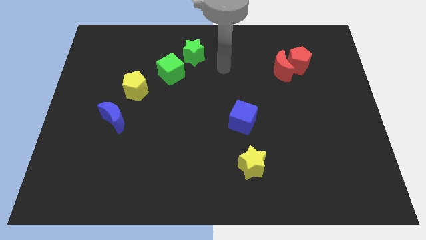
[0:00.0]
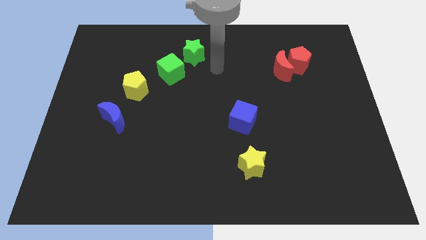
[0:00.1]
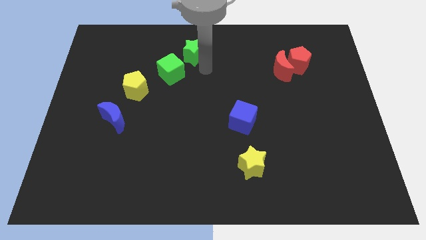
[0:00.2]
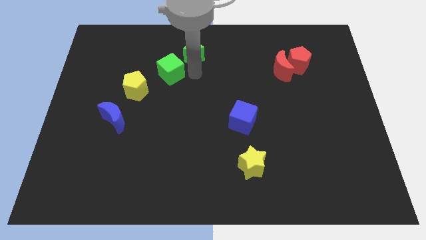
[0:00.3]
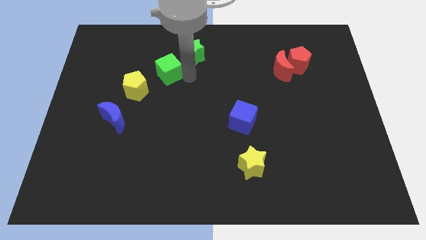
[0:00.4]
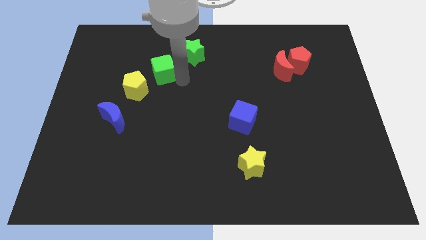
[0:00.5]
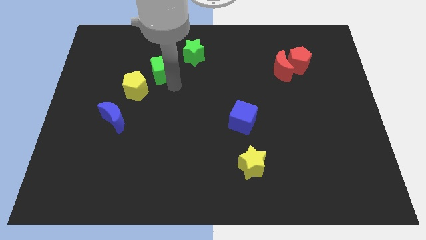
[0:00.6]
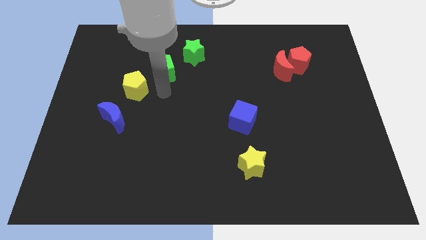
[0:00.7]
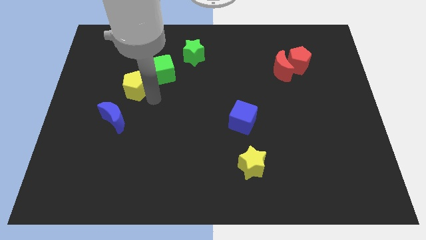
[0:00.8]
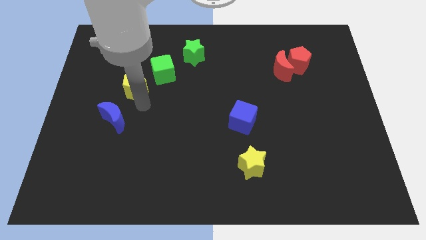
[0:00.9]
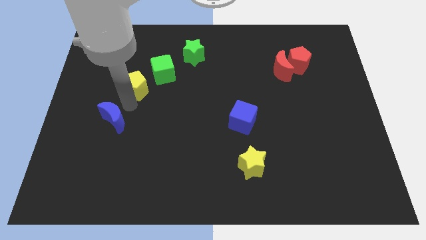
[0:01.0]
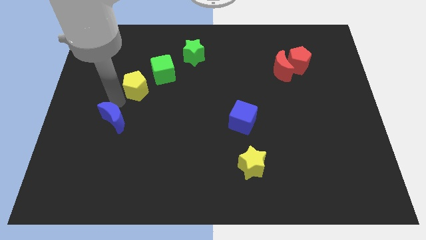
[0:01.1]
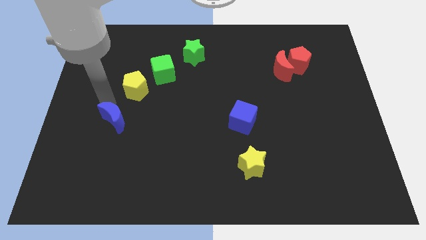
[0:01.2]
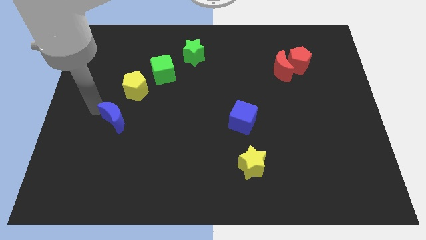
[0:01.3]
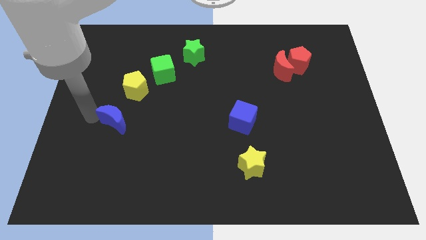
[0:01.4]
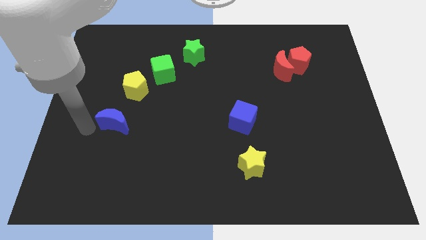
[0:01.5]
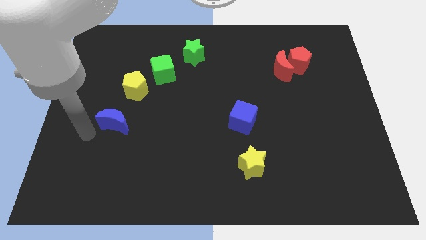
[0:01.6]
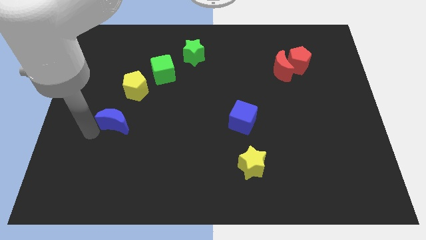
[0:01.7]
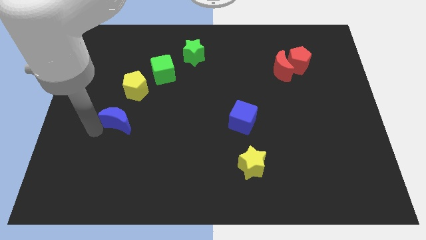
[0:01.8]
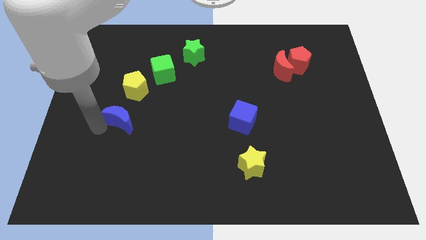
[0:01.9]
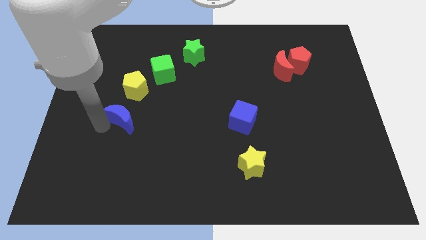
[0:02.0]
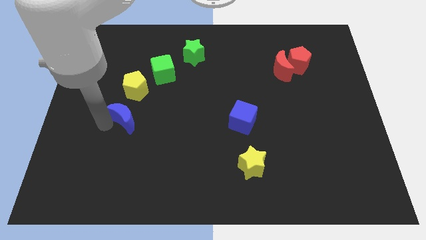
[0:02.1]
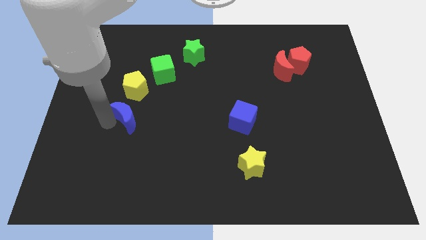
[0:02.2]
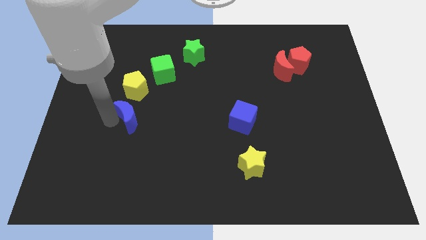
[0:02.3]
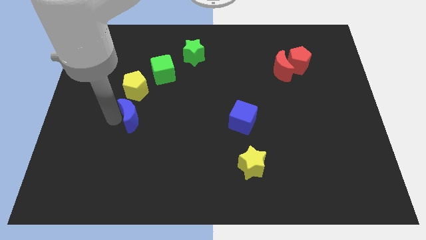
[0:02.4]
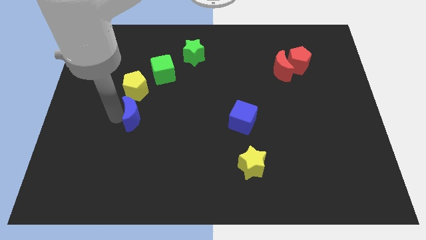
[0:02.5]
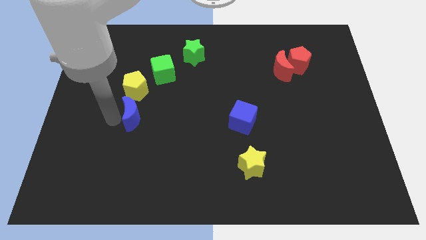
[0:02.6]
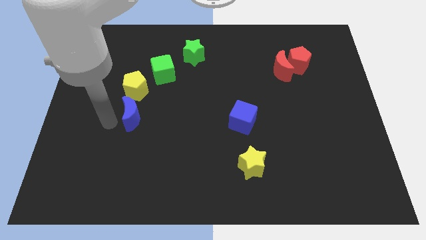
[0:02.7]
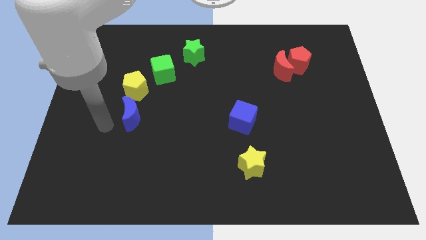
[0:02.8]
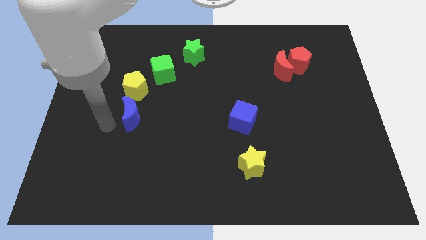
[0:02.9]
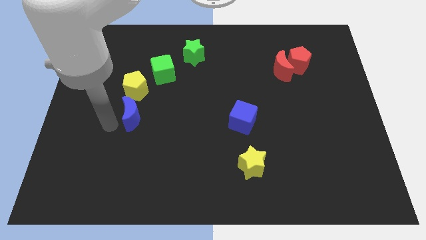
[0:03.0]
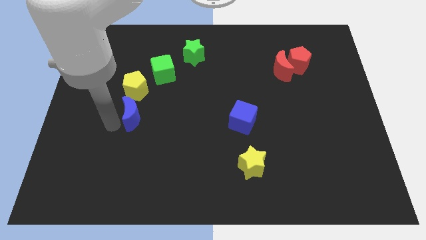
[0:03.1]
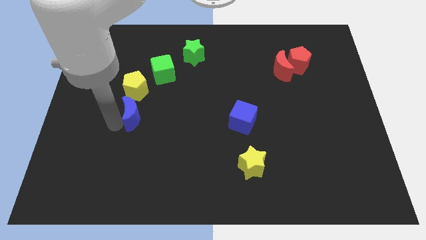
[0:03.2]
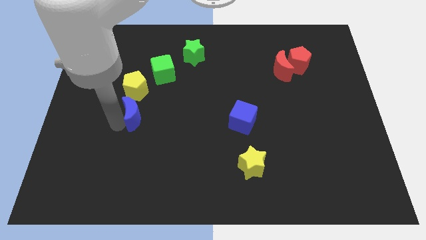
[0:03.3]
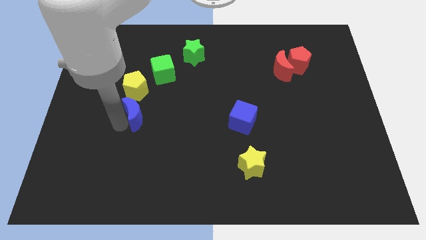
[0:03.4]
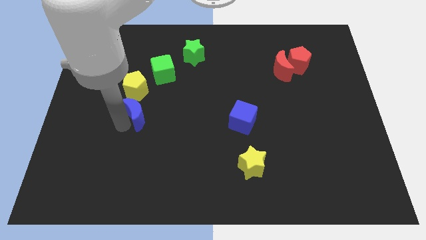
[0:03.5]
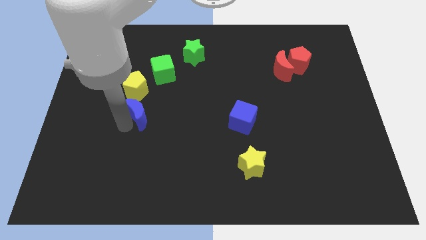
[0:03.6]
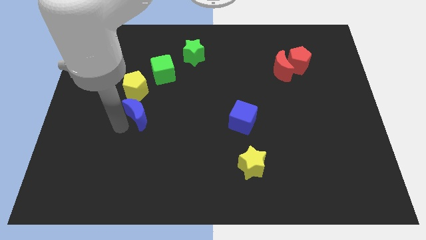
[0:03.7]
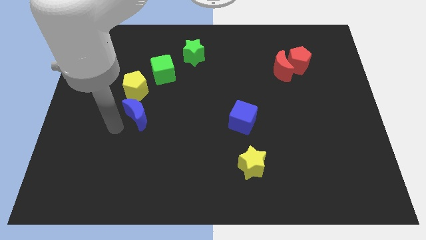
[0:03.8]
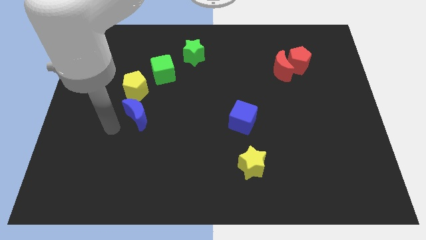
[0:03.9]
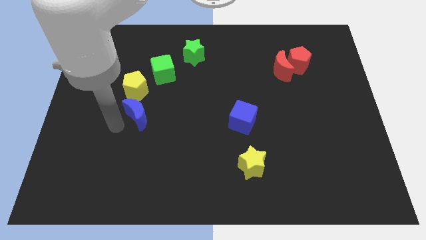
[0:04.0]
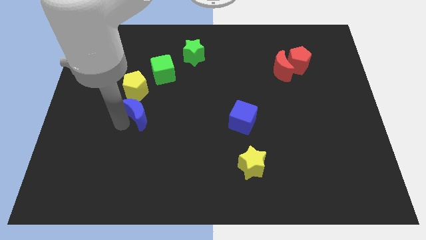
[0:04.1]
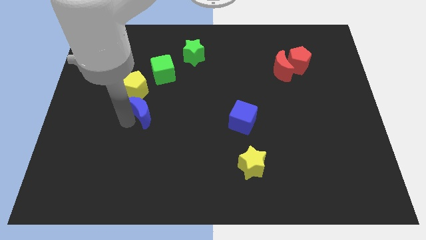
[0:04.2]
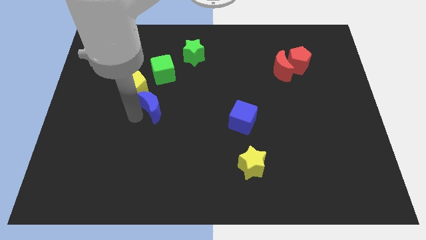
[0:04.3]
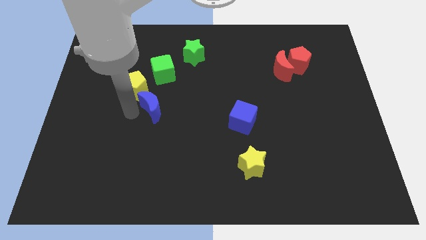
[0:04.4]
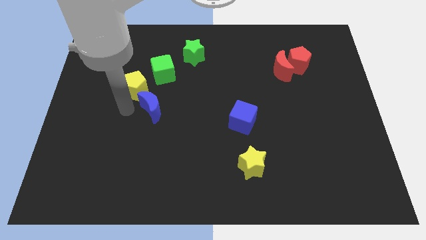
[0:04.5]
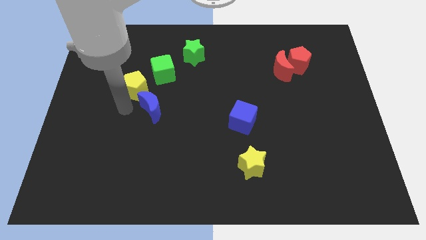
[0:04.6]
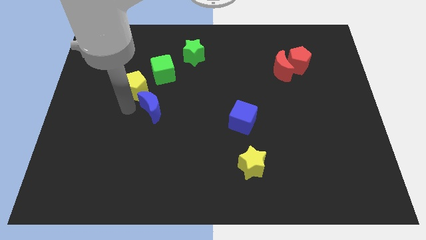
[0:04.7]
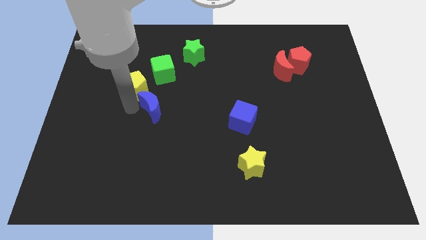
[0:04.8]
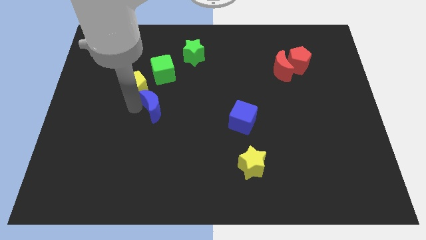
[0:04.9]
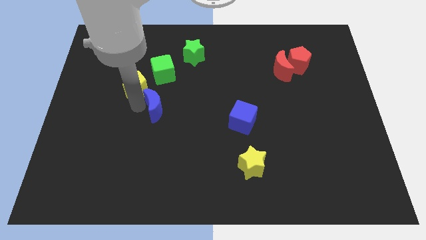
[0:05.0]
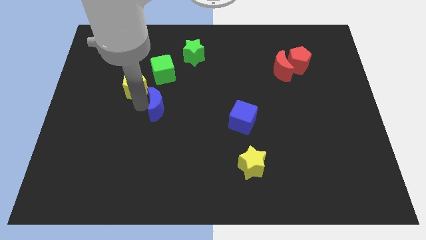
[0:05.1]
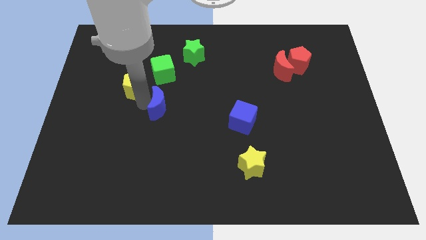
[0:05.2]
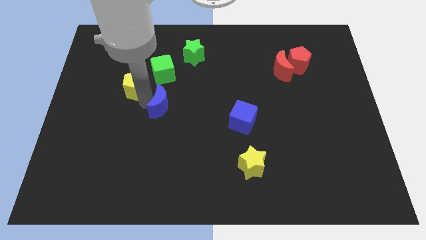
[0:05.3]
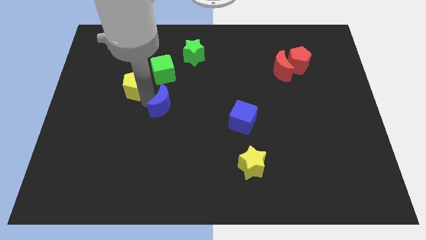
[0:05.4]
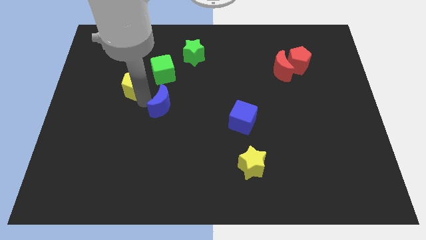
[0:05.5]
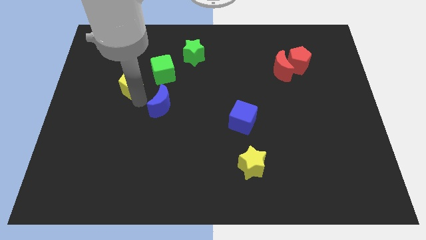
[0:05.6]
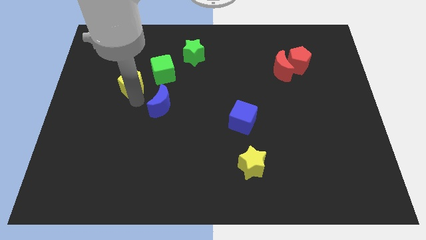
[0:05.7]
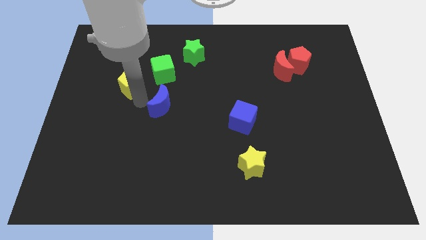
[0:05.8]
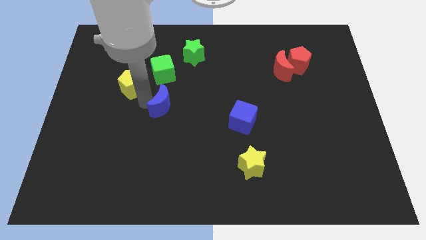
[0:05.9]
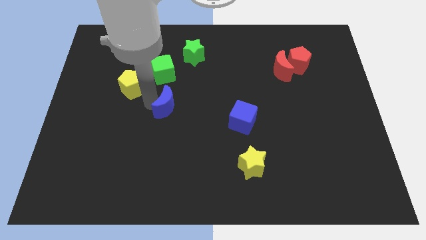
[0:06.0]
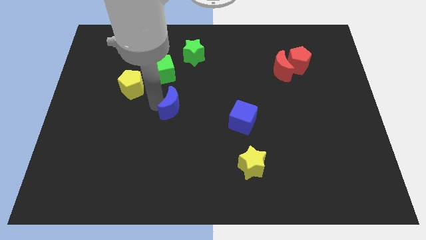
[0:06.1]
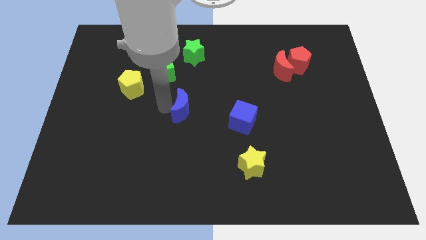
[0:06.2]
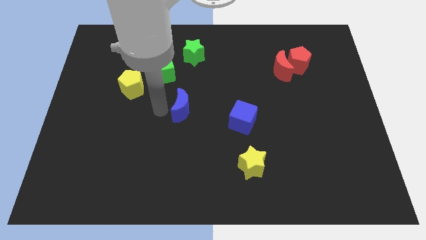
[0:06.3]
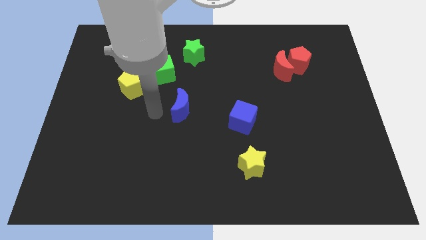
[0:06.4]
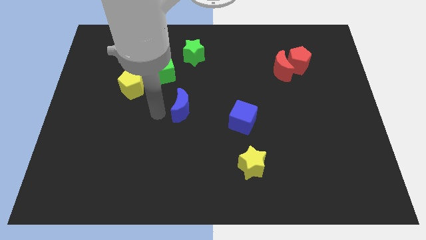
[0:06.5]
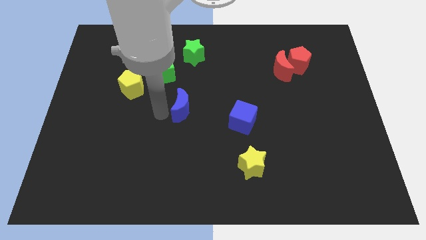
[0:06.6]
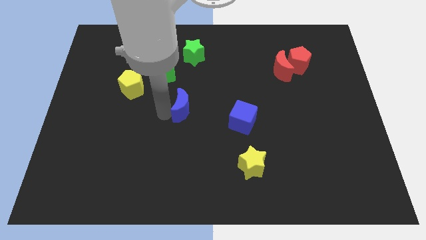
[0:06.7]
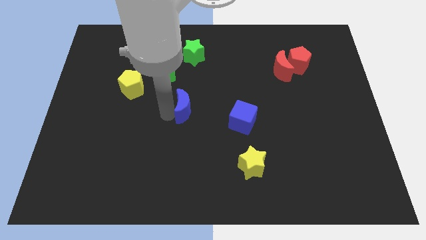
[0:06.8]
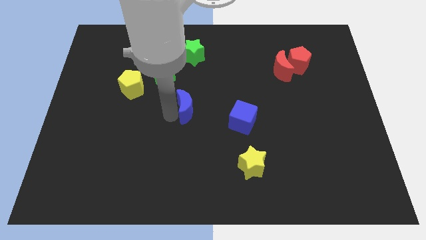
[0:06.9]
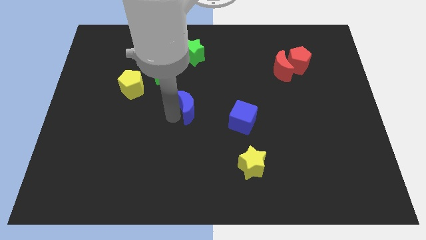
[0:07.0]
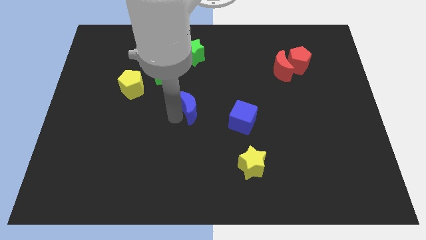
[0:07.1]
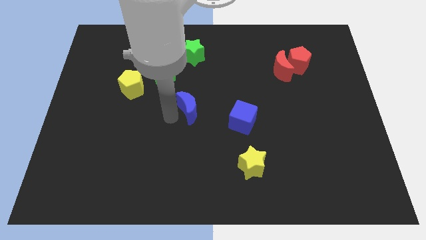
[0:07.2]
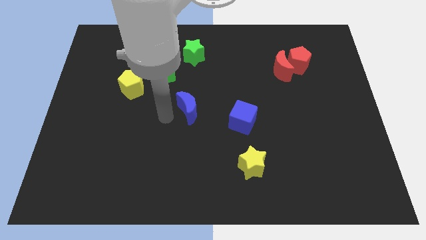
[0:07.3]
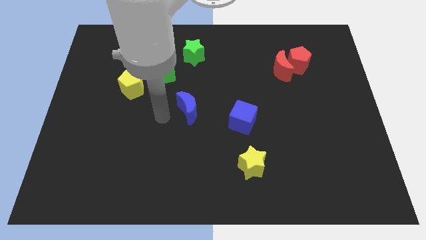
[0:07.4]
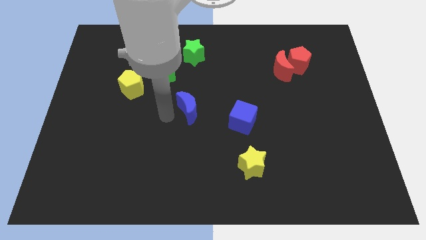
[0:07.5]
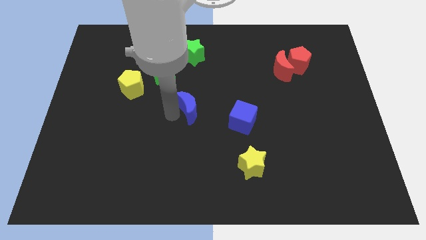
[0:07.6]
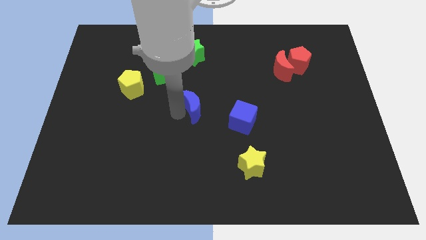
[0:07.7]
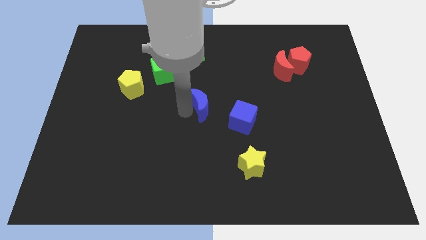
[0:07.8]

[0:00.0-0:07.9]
push the blue moon to the top left side of the blue cube
